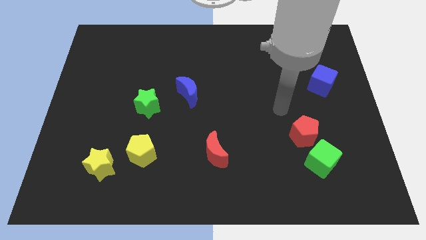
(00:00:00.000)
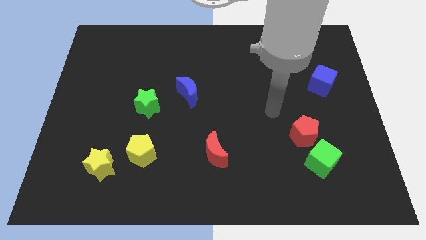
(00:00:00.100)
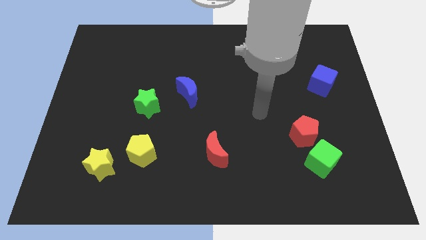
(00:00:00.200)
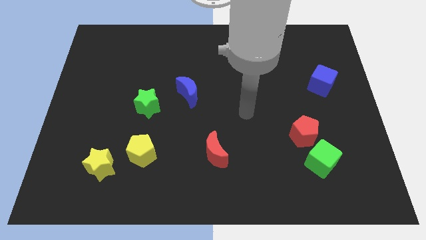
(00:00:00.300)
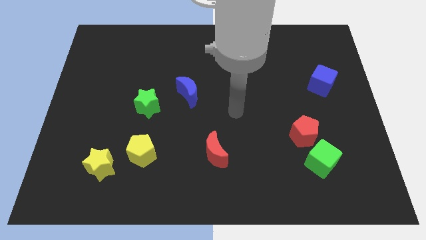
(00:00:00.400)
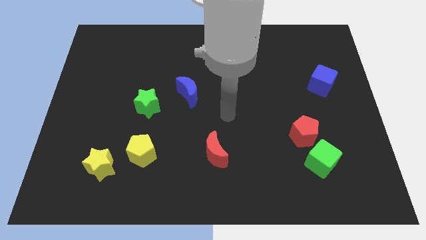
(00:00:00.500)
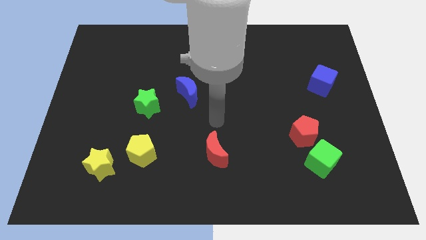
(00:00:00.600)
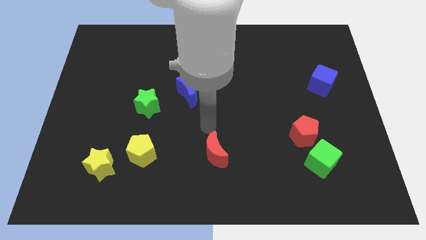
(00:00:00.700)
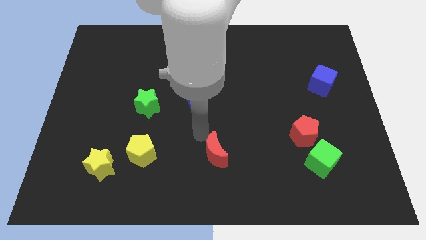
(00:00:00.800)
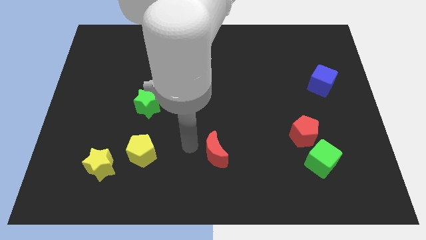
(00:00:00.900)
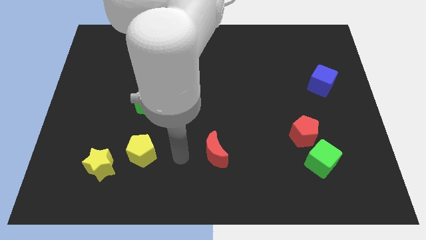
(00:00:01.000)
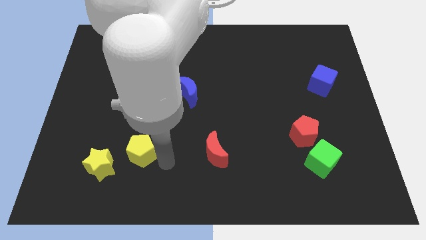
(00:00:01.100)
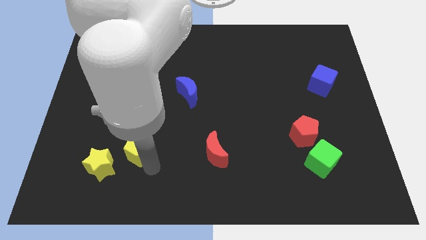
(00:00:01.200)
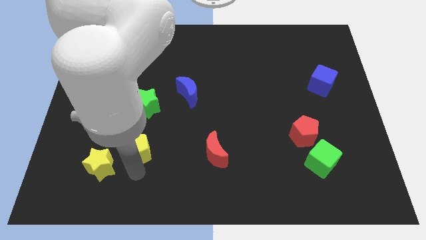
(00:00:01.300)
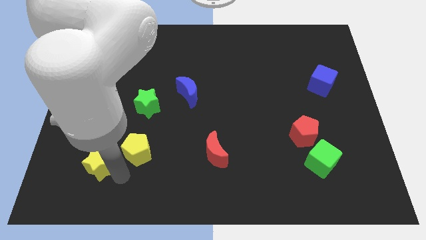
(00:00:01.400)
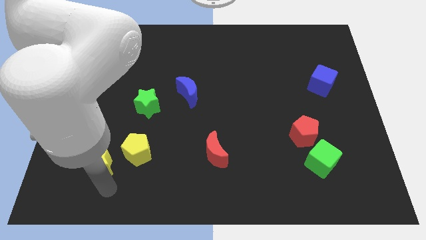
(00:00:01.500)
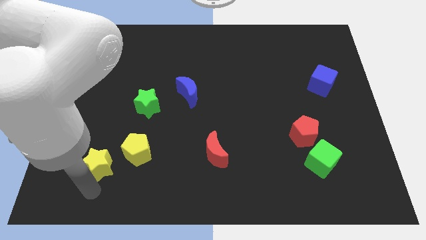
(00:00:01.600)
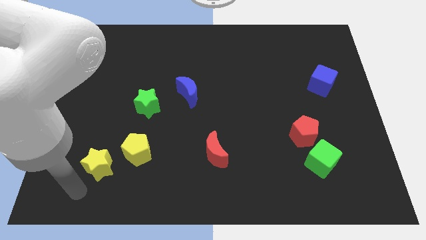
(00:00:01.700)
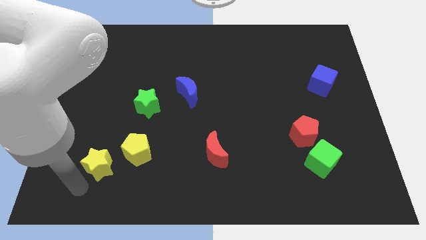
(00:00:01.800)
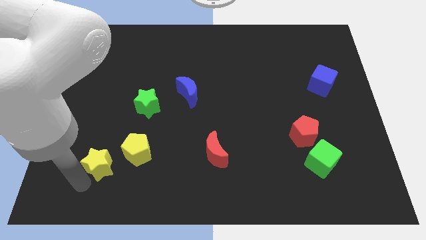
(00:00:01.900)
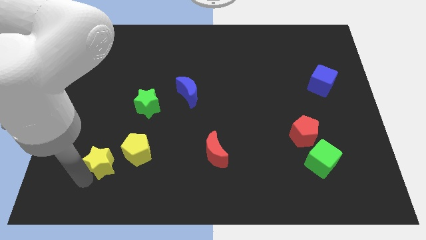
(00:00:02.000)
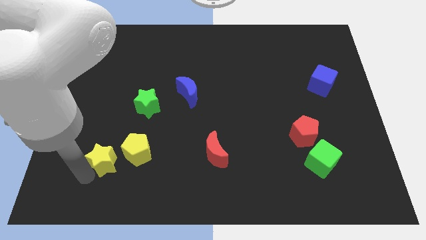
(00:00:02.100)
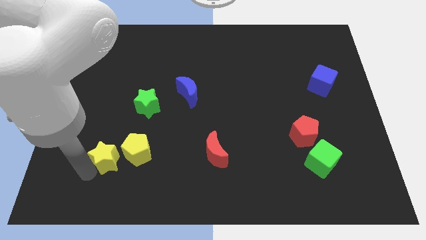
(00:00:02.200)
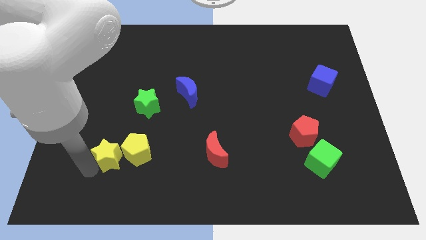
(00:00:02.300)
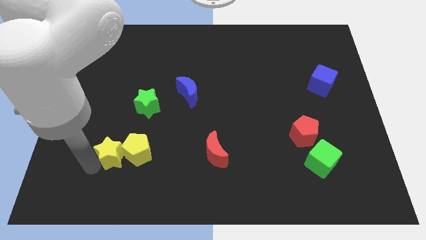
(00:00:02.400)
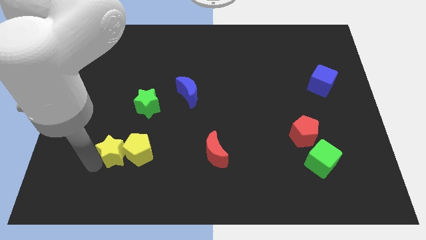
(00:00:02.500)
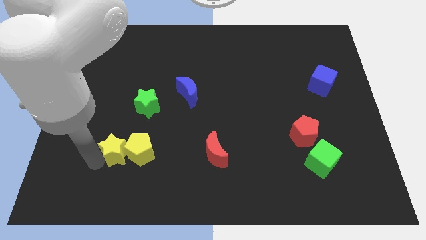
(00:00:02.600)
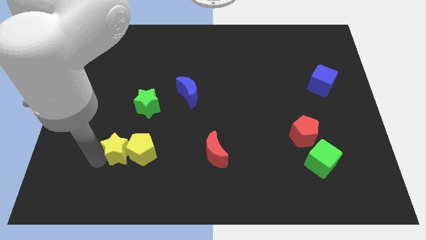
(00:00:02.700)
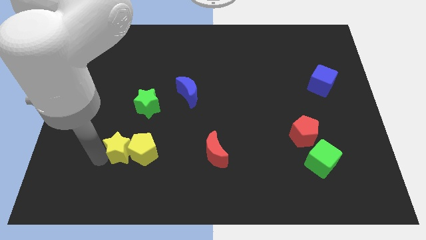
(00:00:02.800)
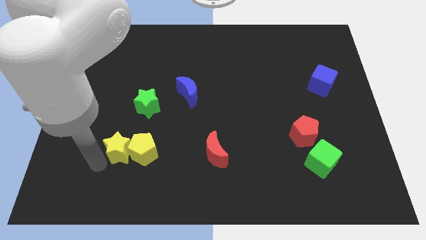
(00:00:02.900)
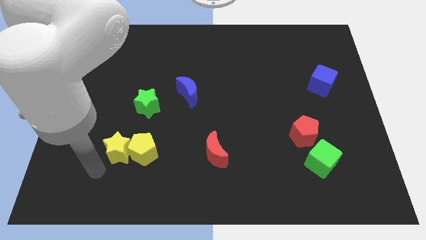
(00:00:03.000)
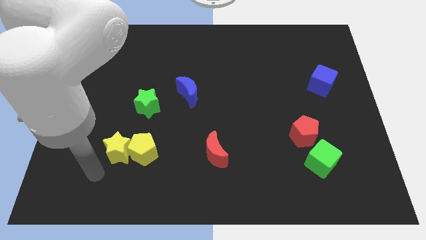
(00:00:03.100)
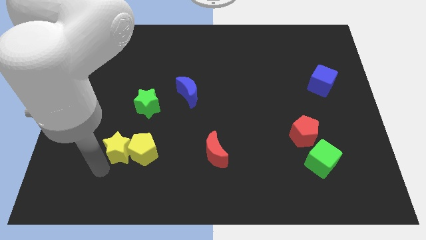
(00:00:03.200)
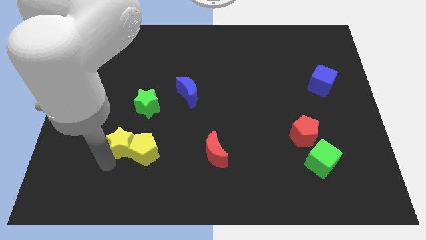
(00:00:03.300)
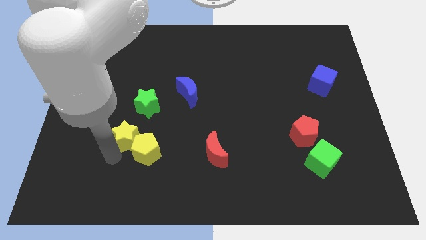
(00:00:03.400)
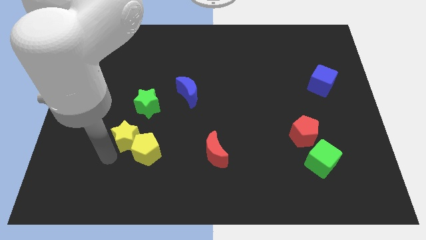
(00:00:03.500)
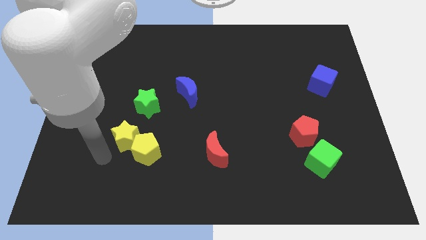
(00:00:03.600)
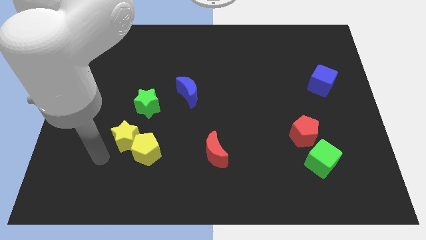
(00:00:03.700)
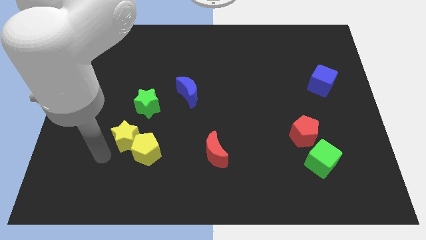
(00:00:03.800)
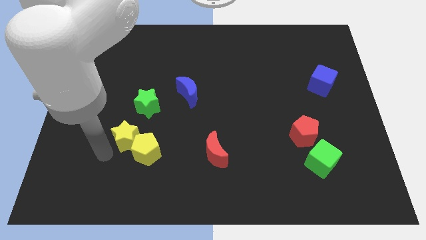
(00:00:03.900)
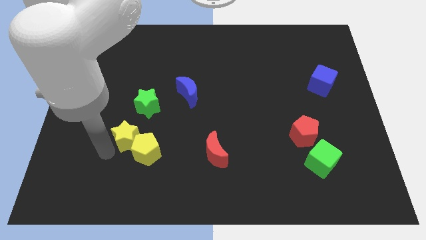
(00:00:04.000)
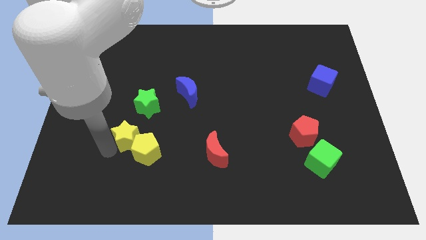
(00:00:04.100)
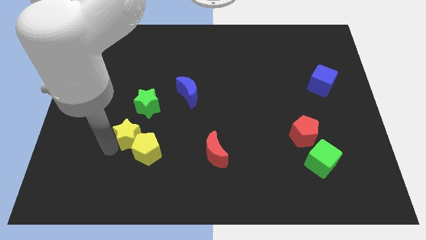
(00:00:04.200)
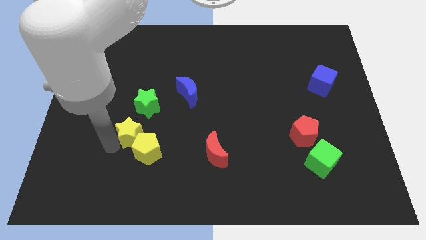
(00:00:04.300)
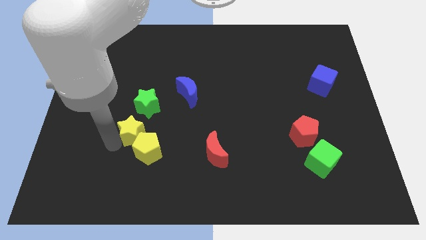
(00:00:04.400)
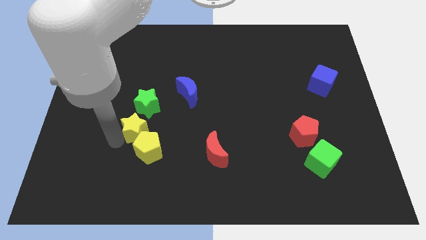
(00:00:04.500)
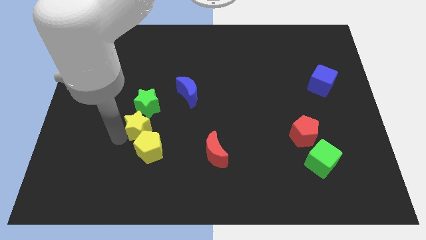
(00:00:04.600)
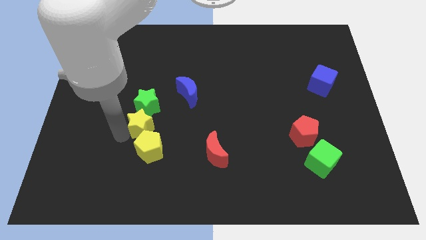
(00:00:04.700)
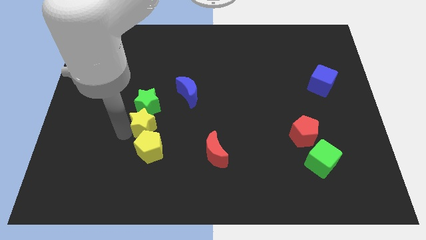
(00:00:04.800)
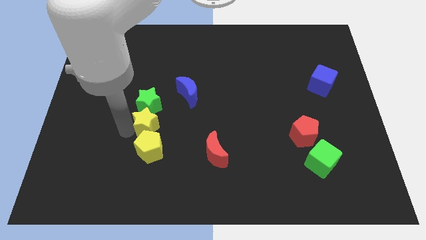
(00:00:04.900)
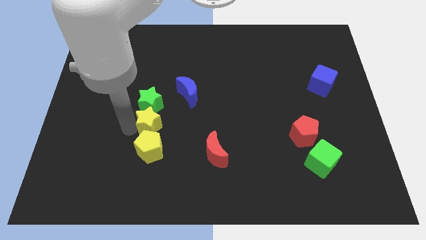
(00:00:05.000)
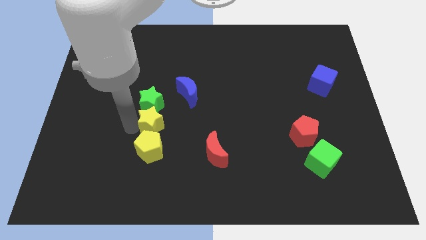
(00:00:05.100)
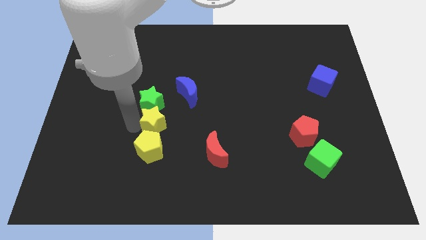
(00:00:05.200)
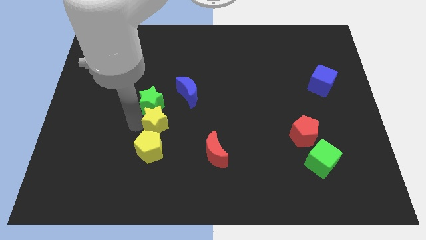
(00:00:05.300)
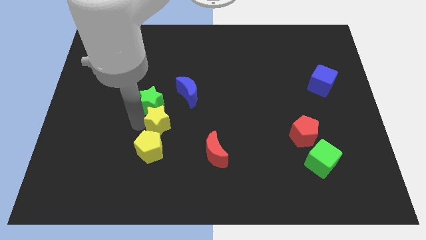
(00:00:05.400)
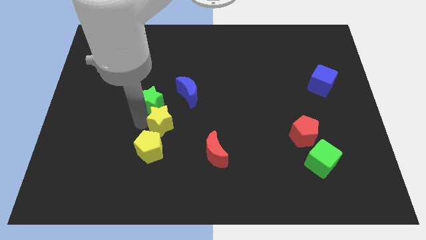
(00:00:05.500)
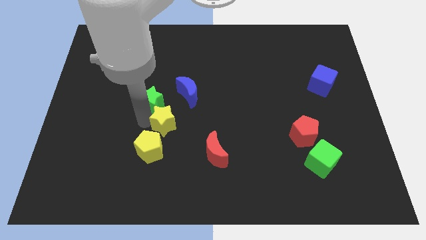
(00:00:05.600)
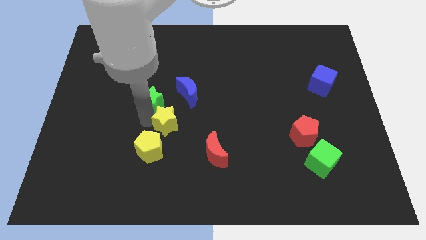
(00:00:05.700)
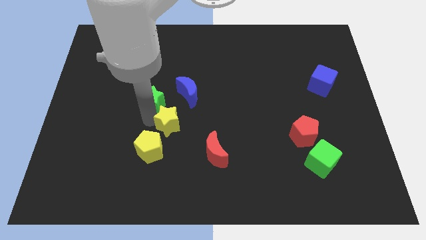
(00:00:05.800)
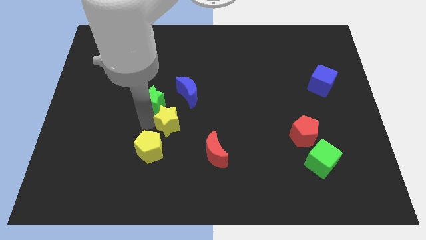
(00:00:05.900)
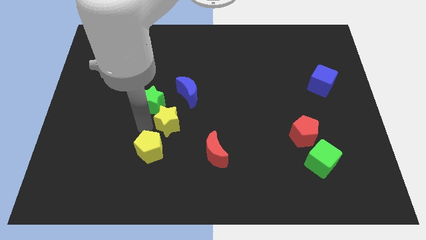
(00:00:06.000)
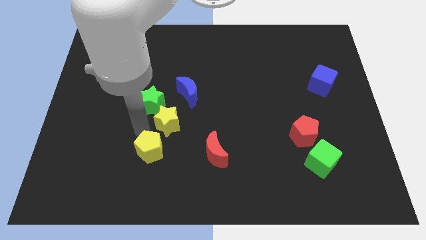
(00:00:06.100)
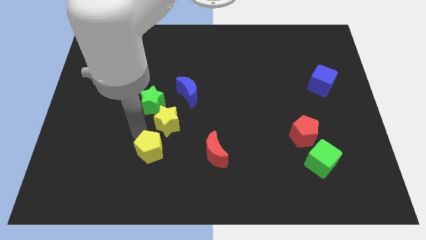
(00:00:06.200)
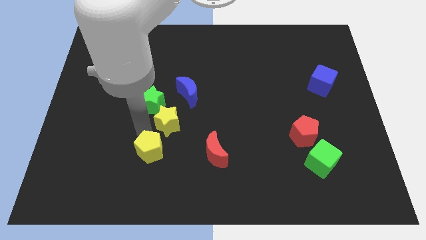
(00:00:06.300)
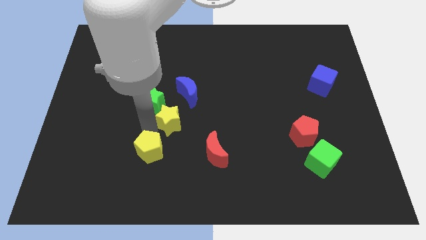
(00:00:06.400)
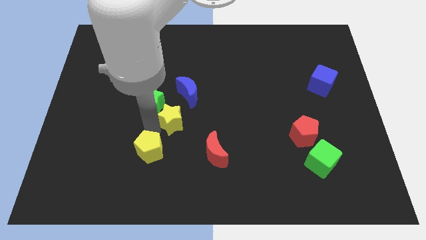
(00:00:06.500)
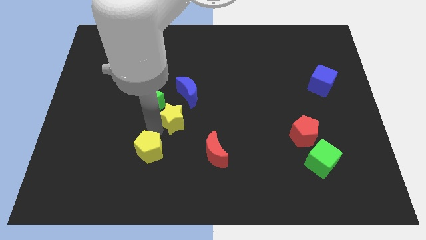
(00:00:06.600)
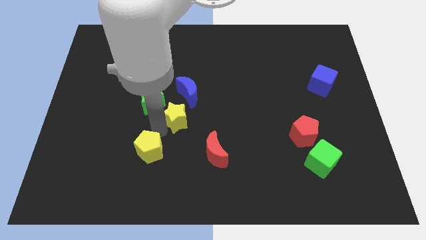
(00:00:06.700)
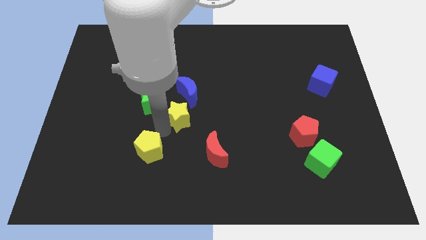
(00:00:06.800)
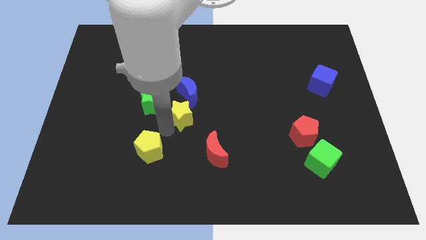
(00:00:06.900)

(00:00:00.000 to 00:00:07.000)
push the yellow star diagonally upwards and right

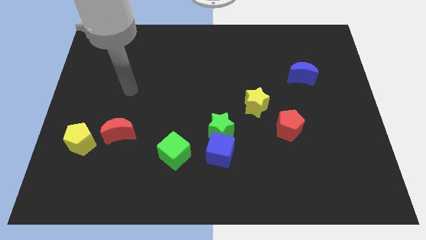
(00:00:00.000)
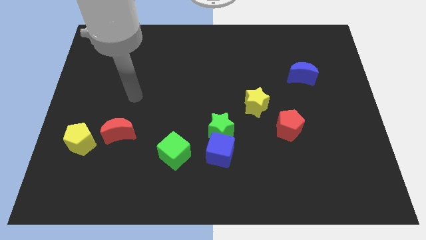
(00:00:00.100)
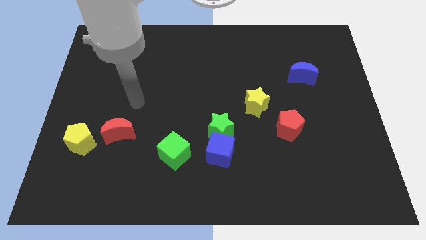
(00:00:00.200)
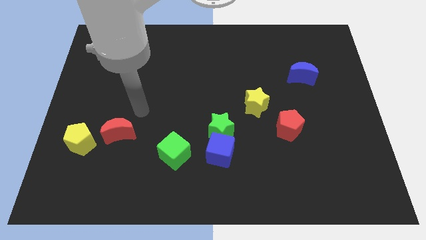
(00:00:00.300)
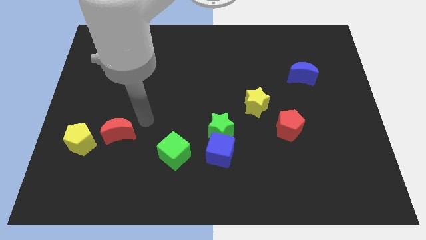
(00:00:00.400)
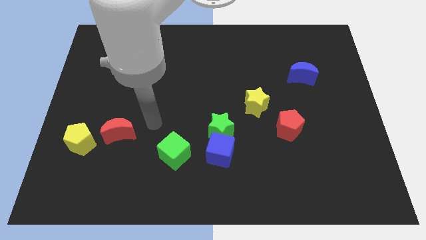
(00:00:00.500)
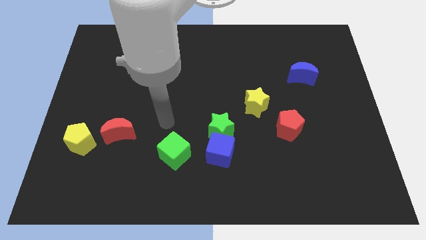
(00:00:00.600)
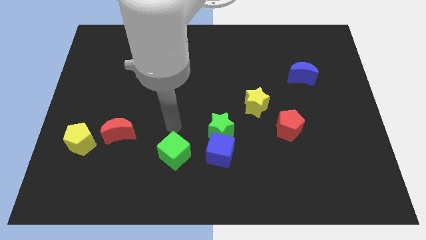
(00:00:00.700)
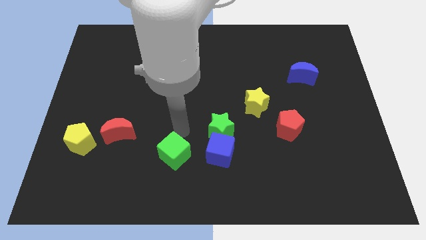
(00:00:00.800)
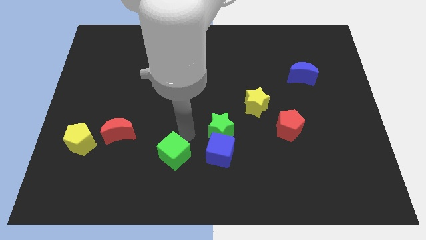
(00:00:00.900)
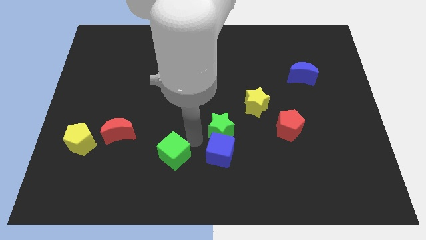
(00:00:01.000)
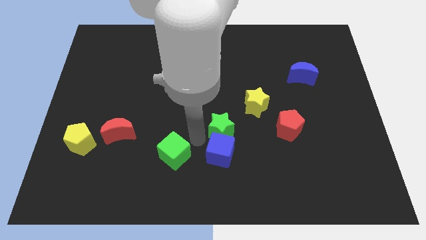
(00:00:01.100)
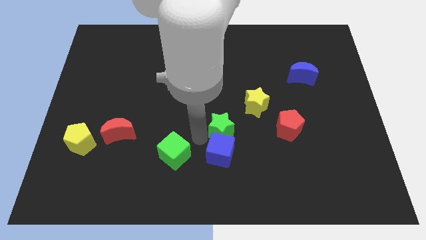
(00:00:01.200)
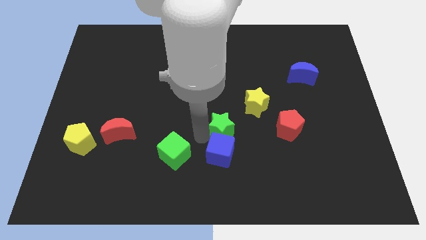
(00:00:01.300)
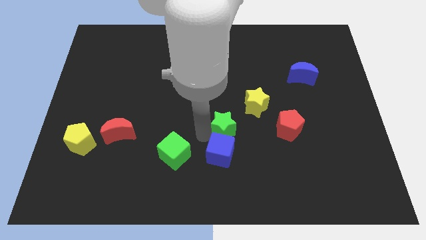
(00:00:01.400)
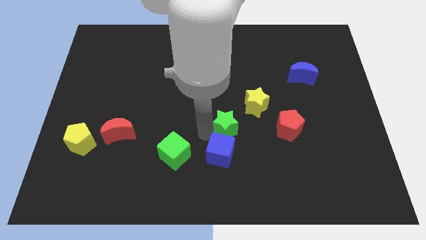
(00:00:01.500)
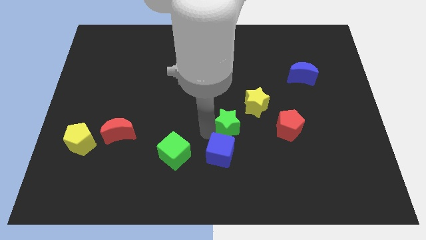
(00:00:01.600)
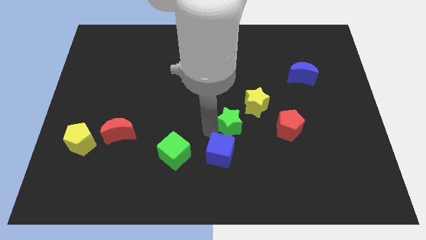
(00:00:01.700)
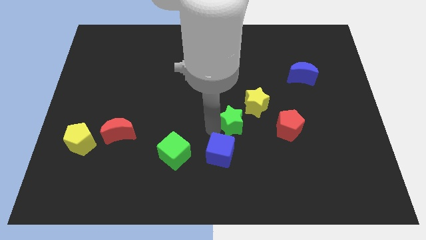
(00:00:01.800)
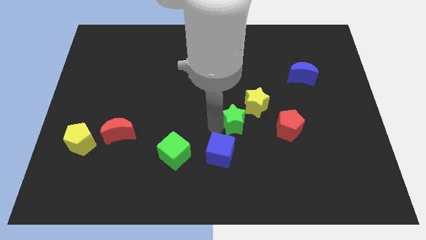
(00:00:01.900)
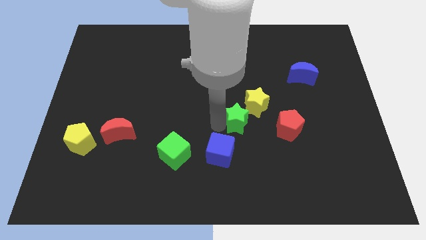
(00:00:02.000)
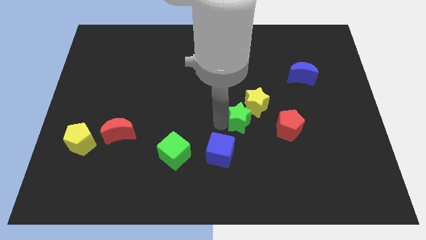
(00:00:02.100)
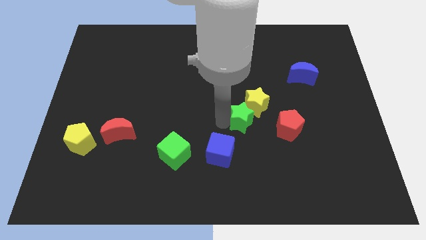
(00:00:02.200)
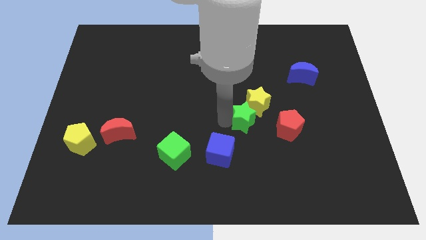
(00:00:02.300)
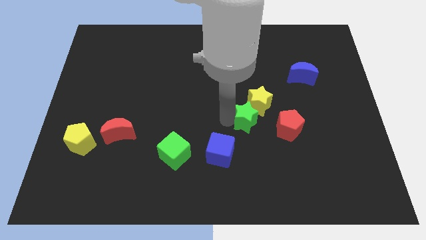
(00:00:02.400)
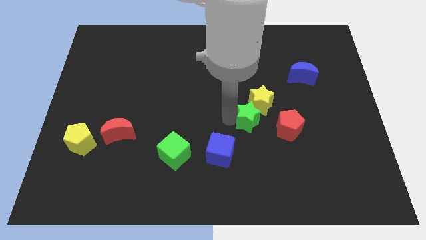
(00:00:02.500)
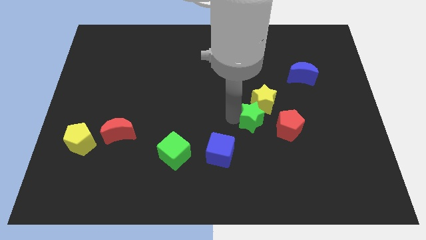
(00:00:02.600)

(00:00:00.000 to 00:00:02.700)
slide the green star up and right diagonally a little bit
